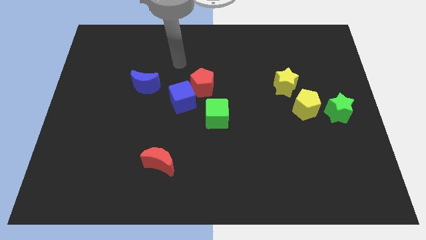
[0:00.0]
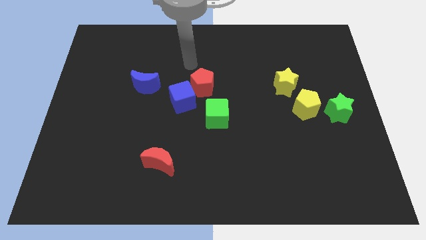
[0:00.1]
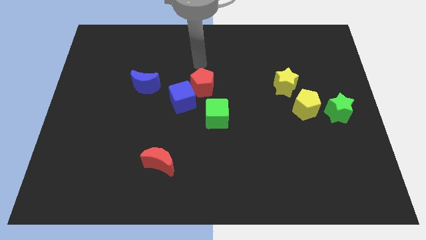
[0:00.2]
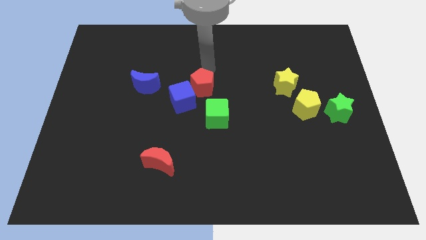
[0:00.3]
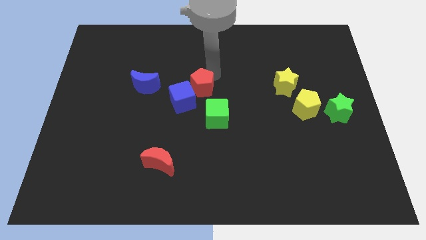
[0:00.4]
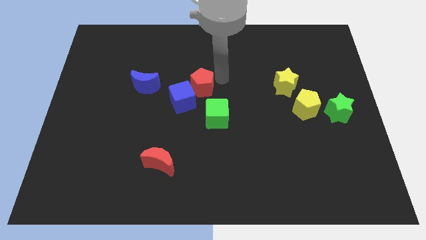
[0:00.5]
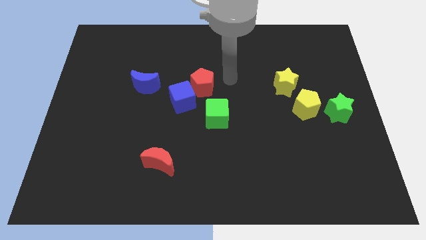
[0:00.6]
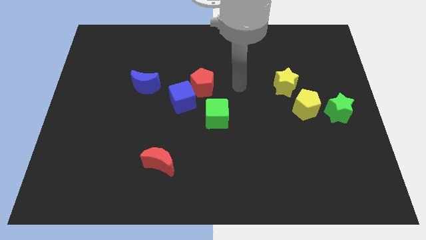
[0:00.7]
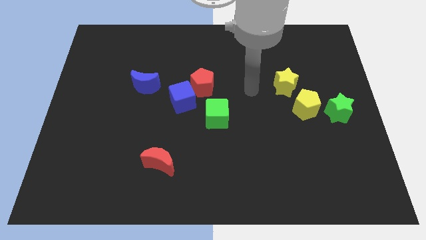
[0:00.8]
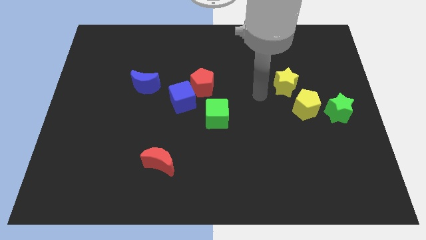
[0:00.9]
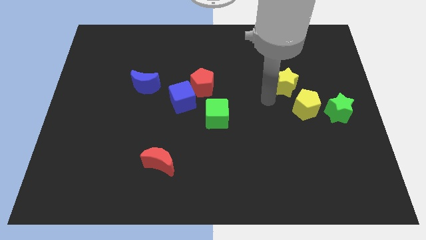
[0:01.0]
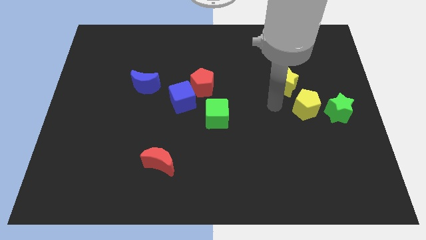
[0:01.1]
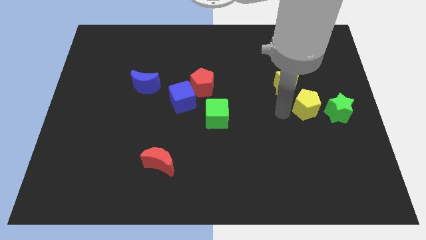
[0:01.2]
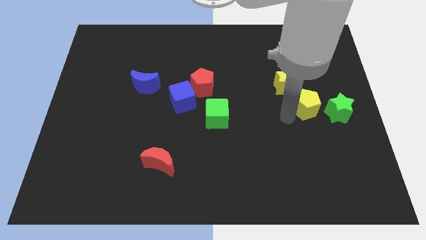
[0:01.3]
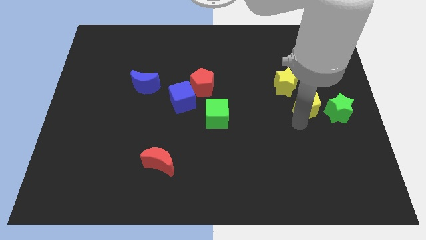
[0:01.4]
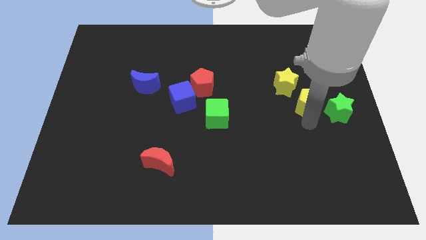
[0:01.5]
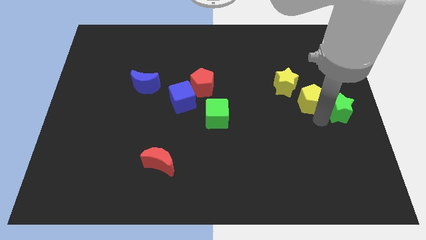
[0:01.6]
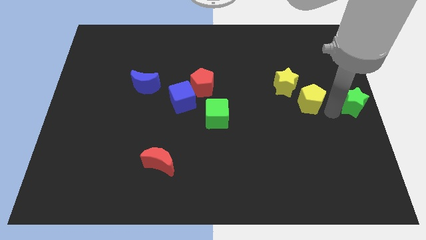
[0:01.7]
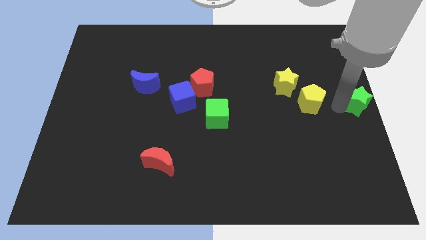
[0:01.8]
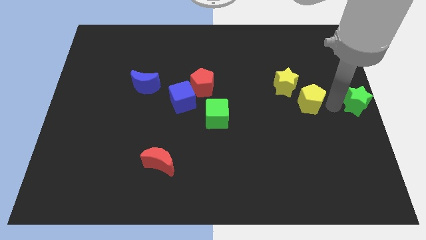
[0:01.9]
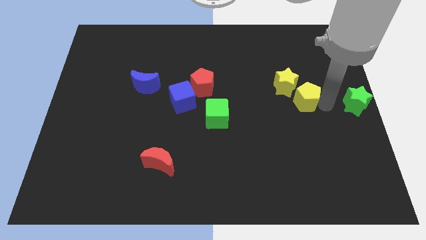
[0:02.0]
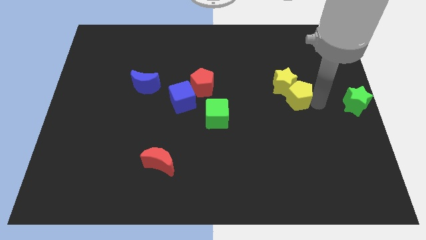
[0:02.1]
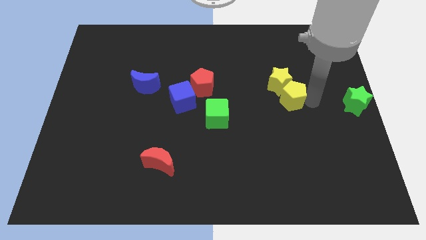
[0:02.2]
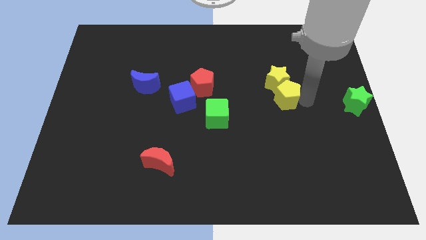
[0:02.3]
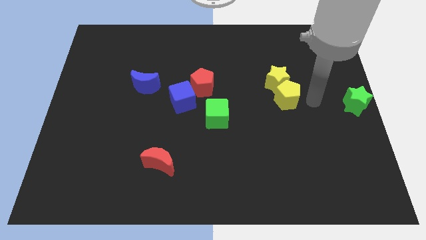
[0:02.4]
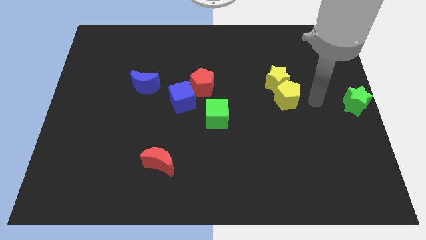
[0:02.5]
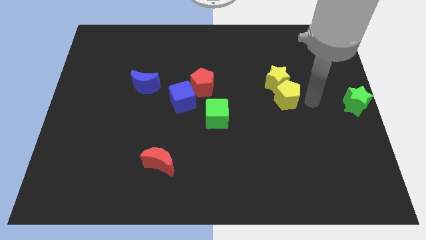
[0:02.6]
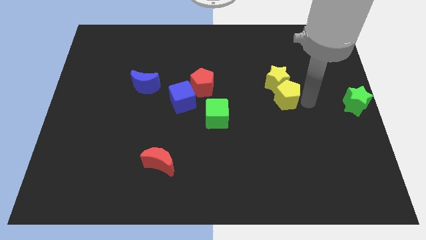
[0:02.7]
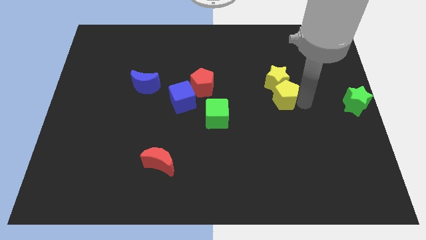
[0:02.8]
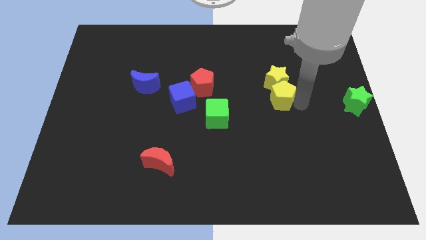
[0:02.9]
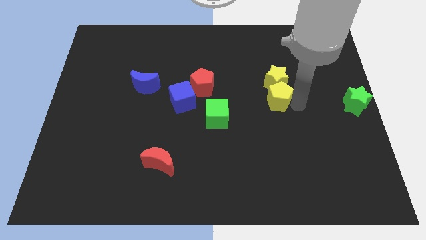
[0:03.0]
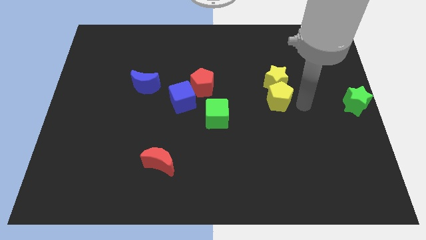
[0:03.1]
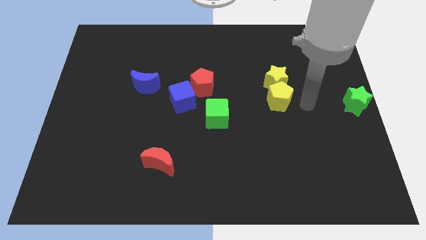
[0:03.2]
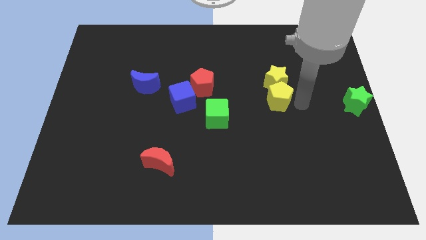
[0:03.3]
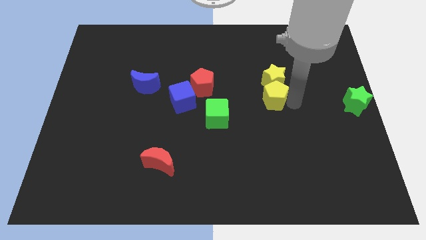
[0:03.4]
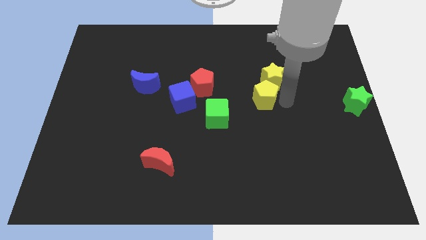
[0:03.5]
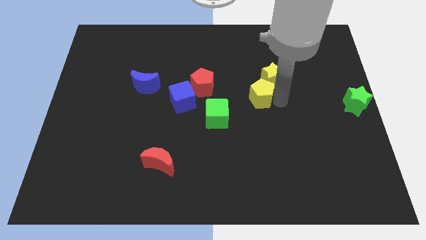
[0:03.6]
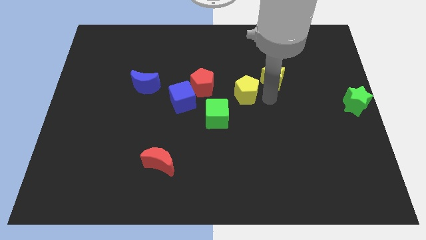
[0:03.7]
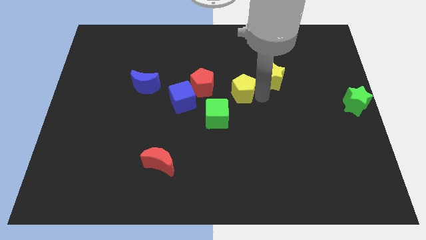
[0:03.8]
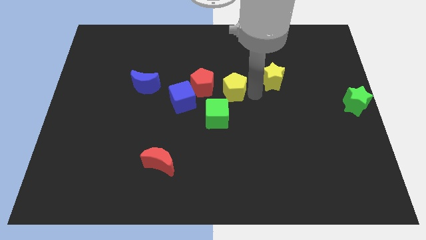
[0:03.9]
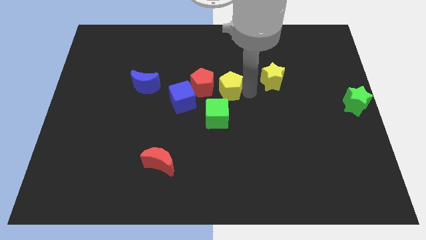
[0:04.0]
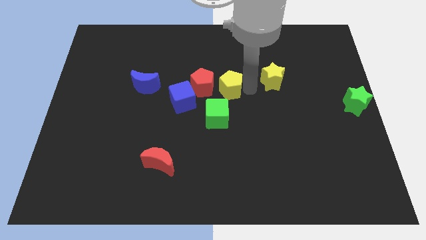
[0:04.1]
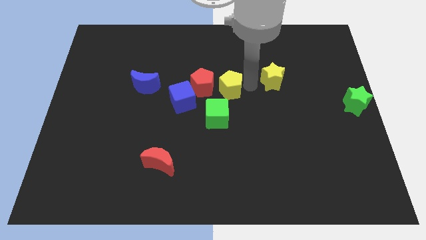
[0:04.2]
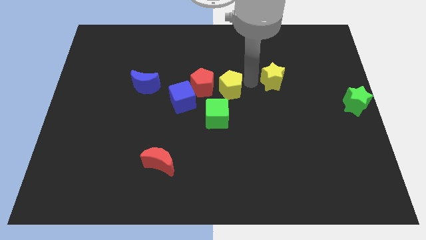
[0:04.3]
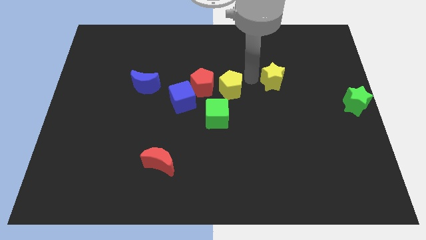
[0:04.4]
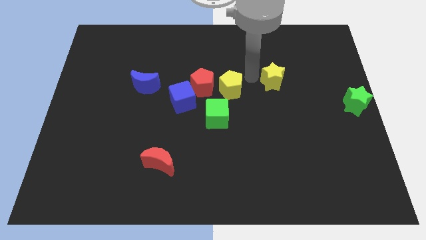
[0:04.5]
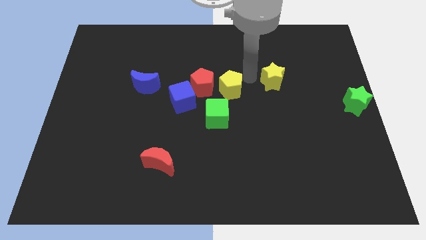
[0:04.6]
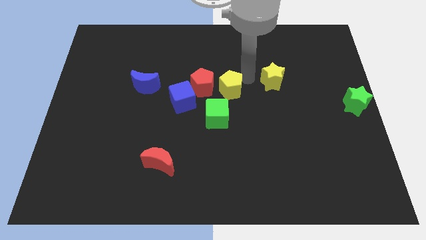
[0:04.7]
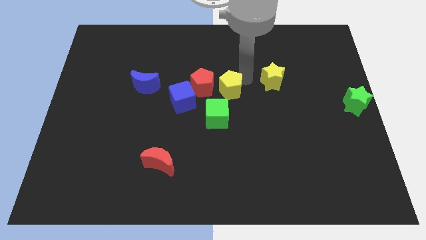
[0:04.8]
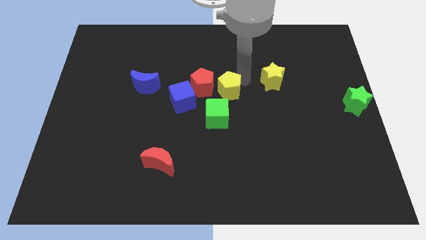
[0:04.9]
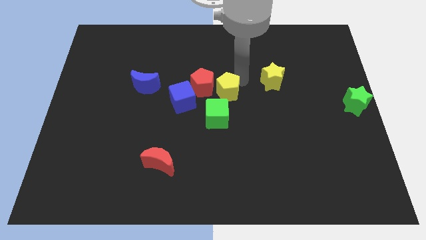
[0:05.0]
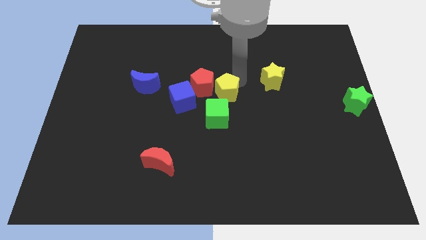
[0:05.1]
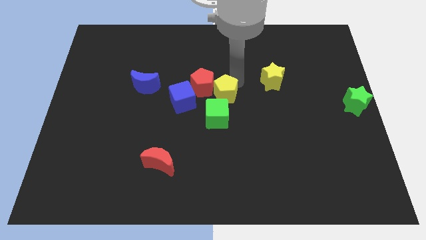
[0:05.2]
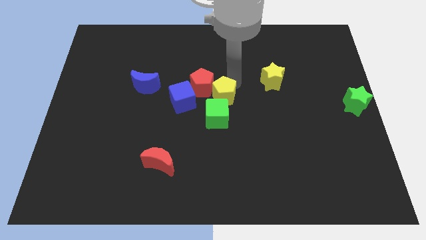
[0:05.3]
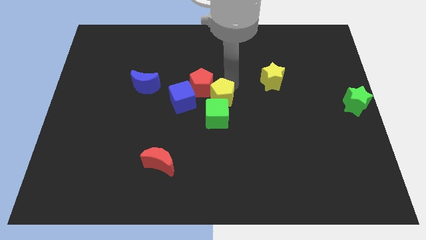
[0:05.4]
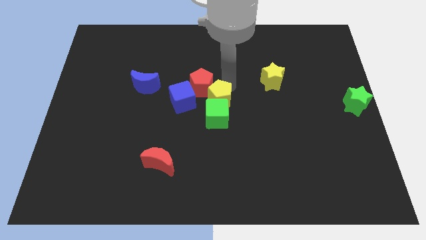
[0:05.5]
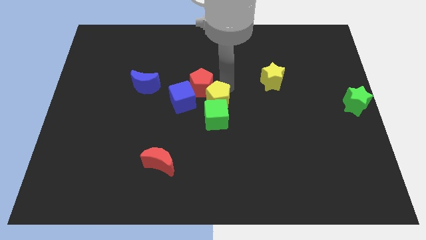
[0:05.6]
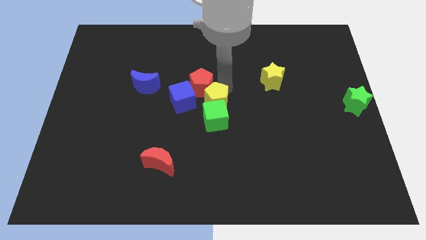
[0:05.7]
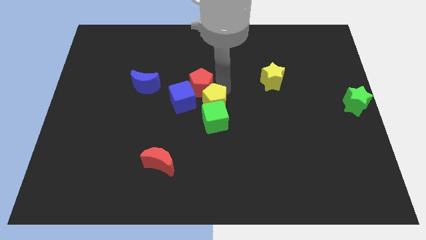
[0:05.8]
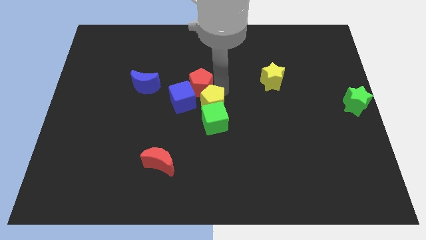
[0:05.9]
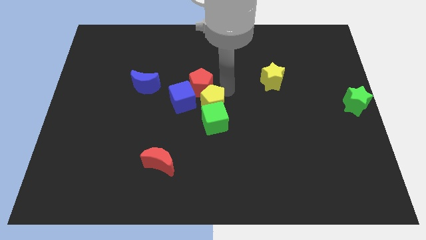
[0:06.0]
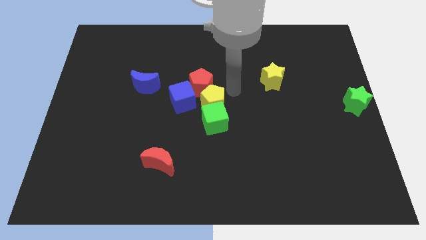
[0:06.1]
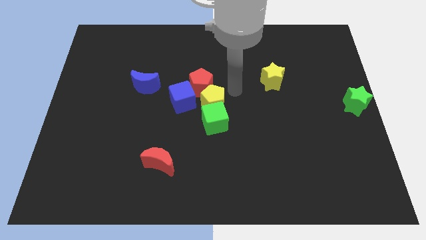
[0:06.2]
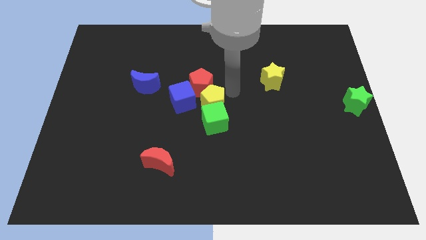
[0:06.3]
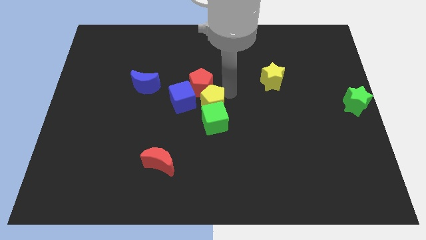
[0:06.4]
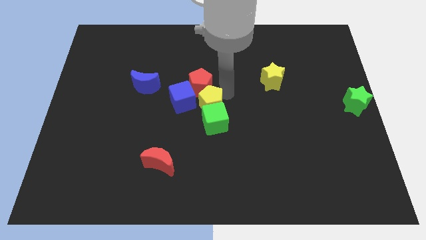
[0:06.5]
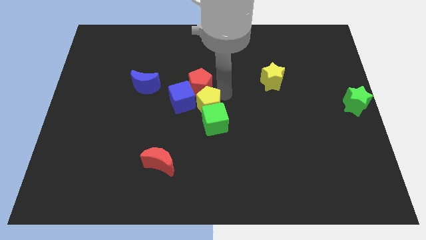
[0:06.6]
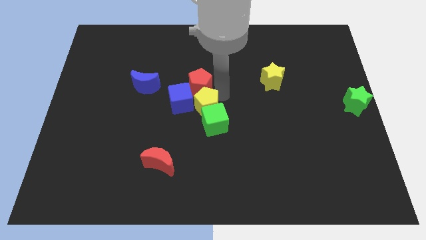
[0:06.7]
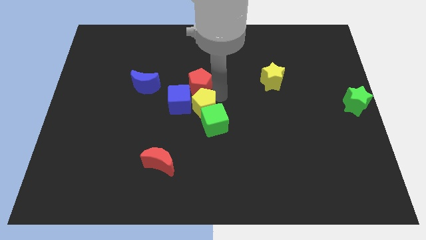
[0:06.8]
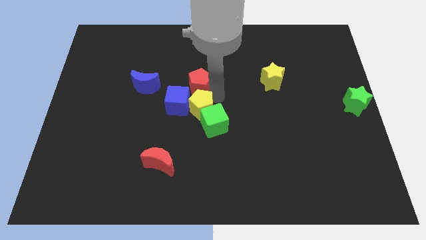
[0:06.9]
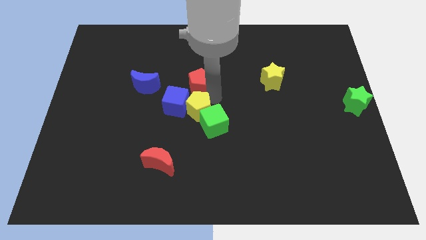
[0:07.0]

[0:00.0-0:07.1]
move the yellow pentagon to the bottom left of the red pentagon

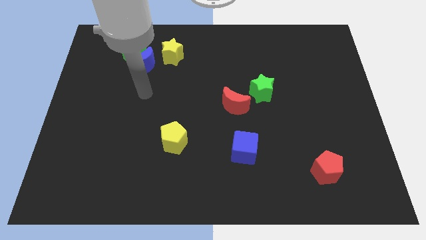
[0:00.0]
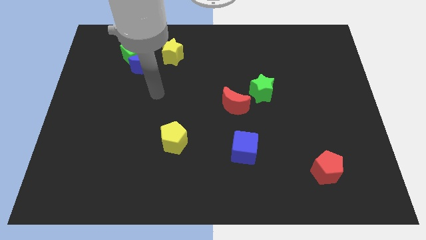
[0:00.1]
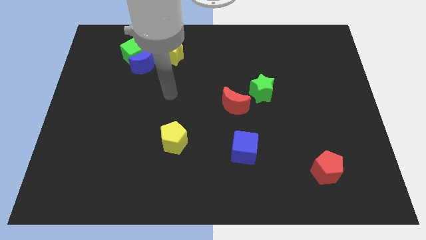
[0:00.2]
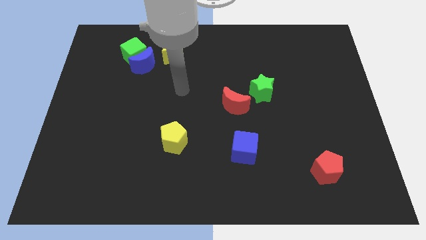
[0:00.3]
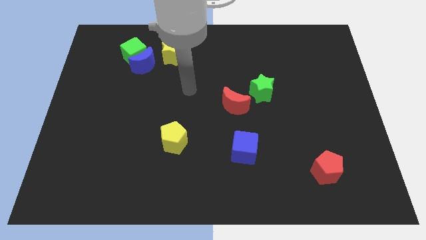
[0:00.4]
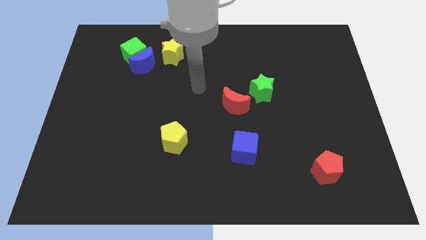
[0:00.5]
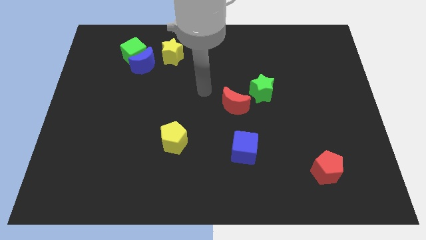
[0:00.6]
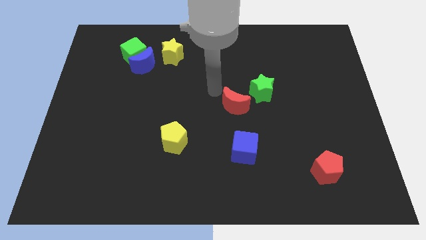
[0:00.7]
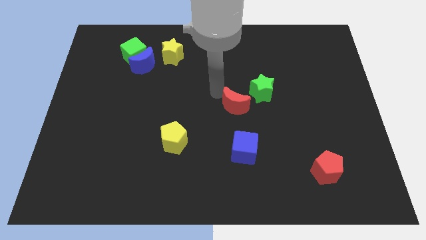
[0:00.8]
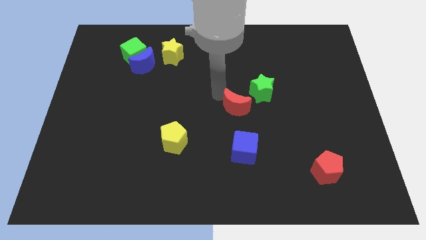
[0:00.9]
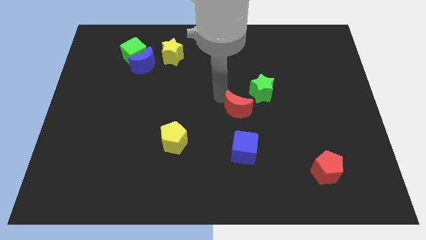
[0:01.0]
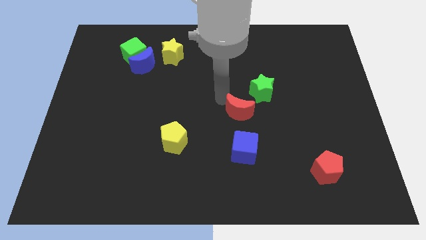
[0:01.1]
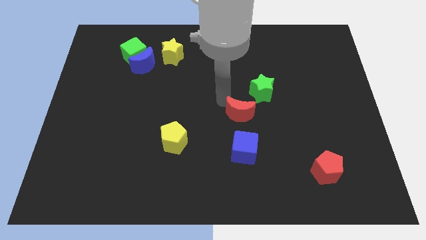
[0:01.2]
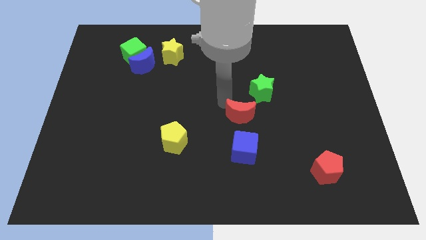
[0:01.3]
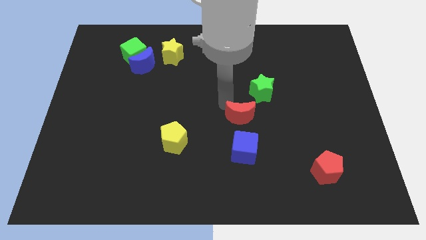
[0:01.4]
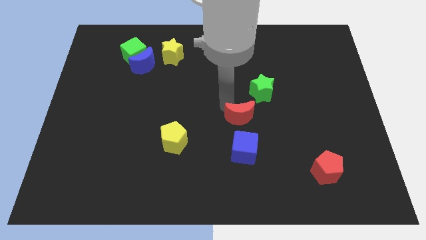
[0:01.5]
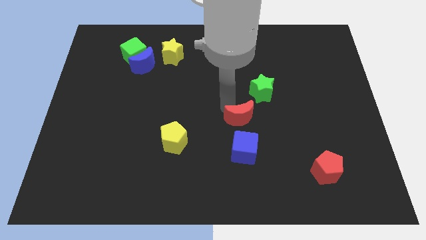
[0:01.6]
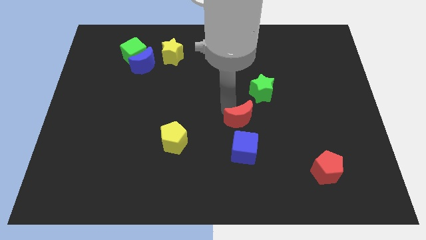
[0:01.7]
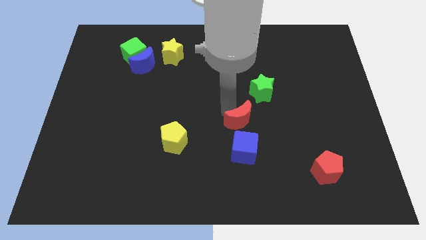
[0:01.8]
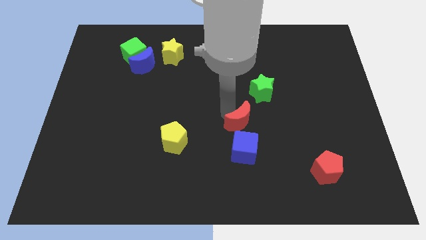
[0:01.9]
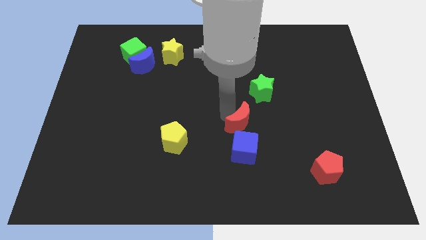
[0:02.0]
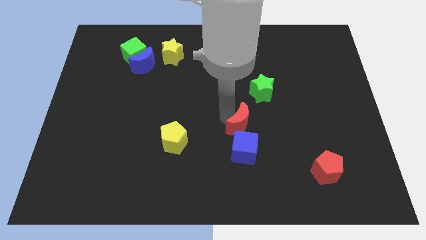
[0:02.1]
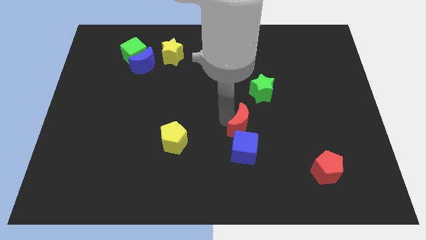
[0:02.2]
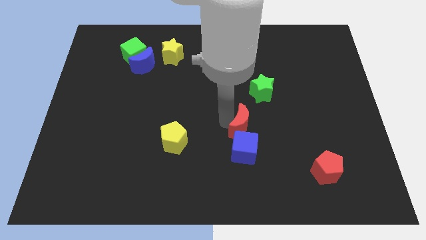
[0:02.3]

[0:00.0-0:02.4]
move the red moon diagonally up and to the right of the blue cube
